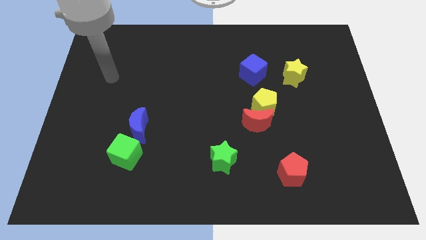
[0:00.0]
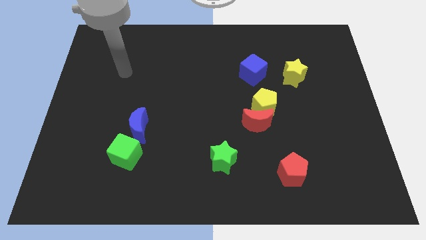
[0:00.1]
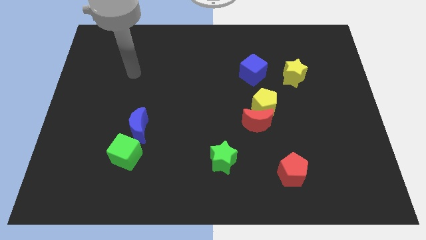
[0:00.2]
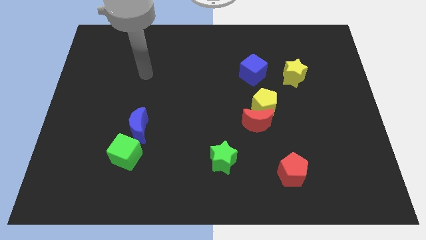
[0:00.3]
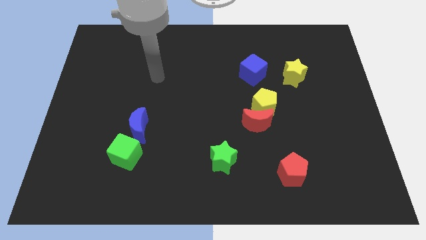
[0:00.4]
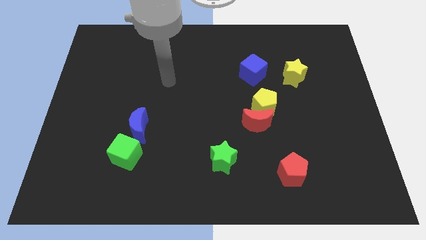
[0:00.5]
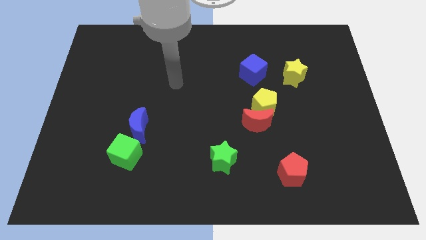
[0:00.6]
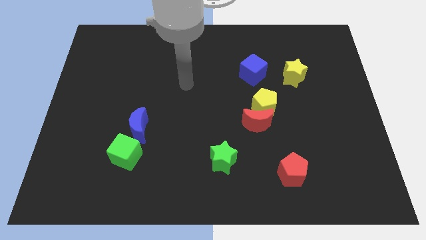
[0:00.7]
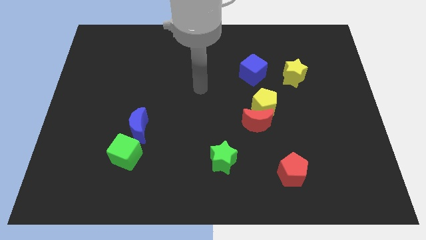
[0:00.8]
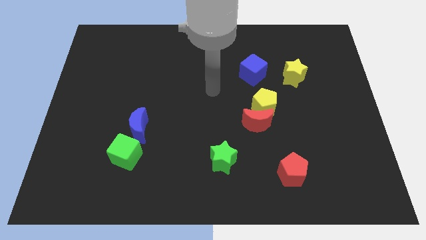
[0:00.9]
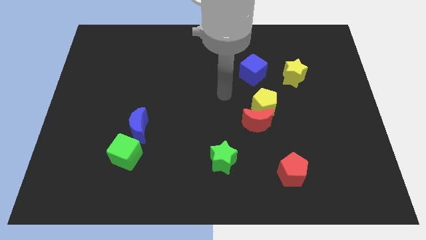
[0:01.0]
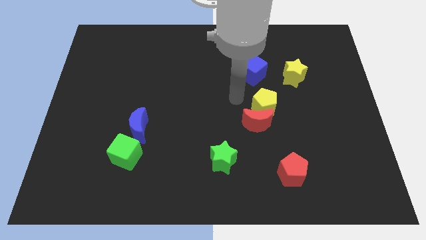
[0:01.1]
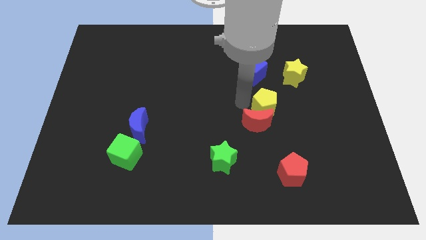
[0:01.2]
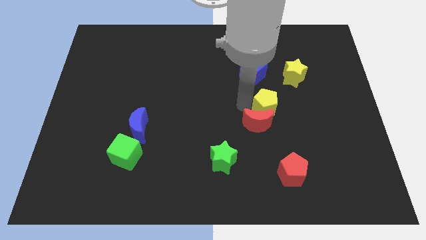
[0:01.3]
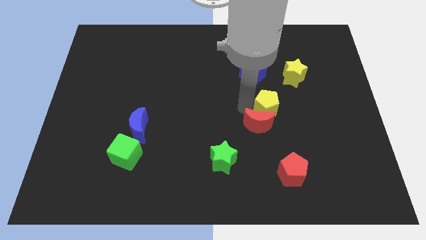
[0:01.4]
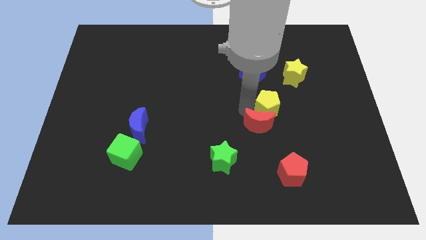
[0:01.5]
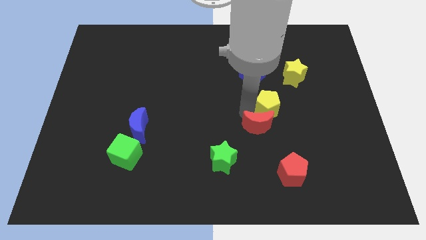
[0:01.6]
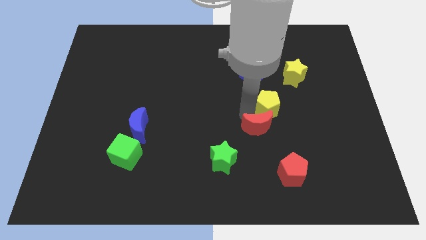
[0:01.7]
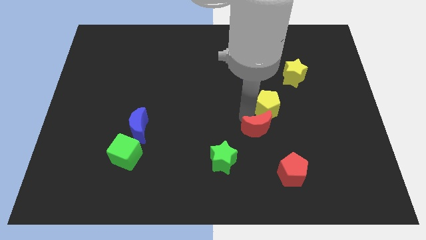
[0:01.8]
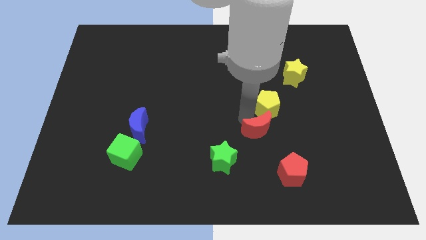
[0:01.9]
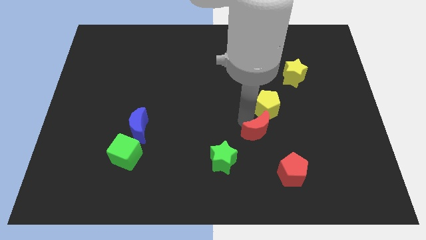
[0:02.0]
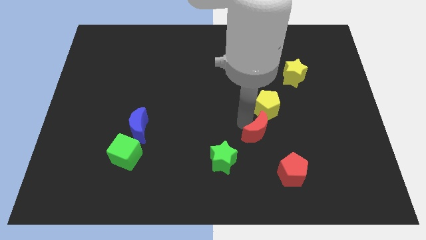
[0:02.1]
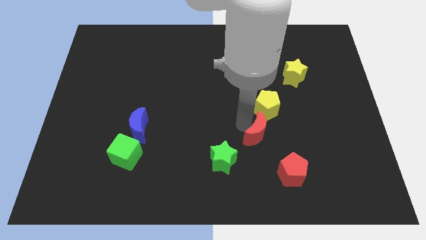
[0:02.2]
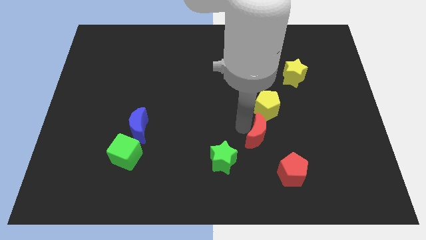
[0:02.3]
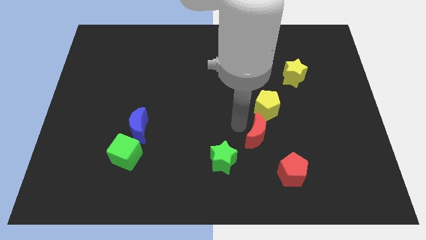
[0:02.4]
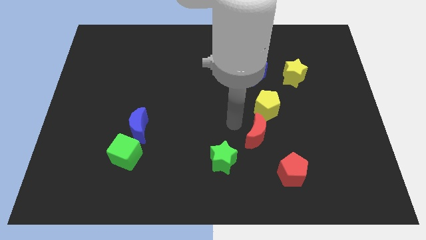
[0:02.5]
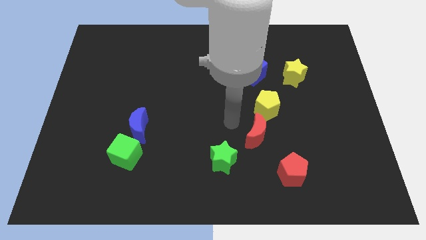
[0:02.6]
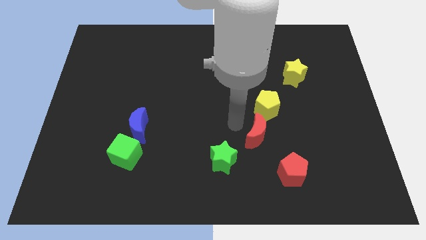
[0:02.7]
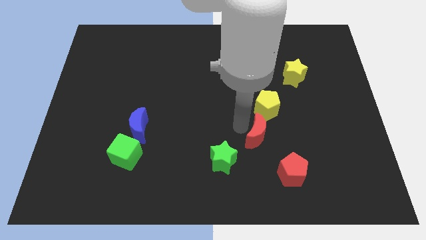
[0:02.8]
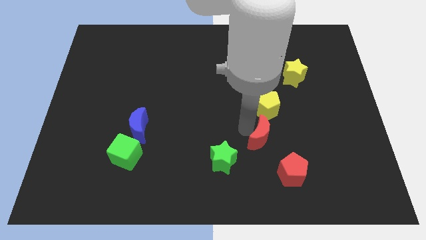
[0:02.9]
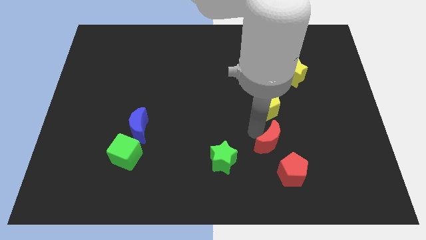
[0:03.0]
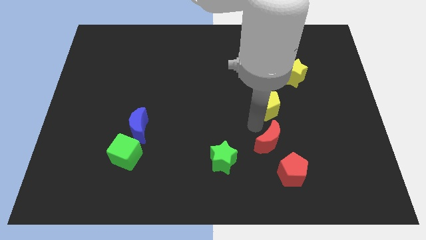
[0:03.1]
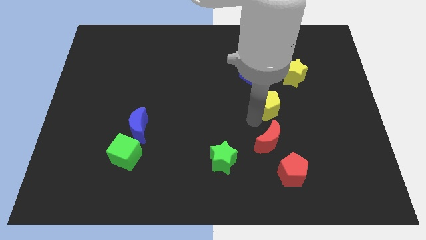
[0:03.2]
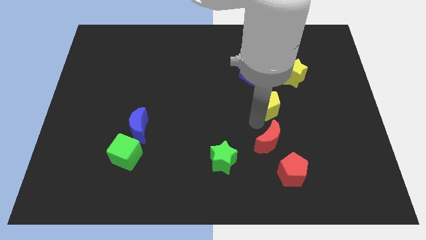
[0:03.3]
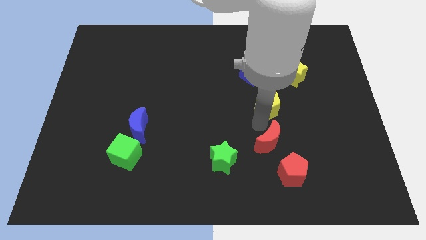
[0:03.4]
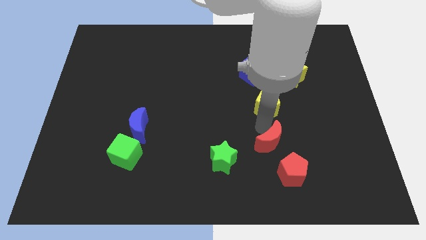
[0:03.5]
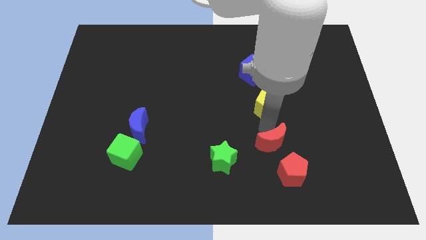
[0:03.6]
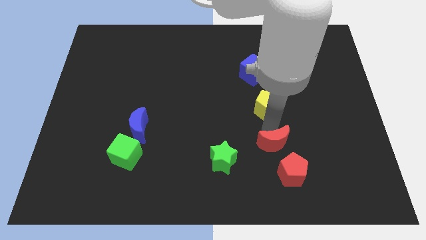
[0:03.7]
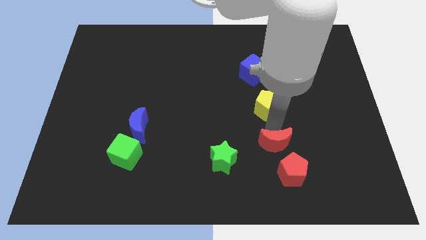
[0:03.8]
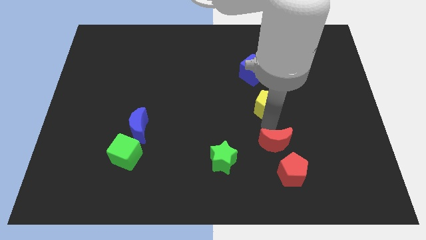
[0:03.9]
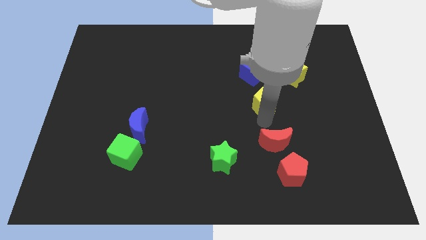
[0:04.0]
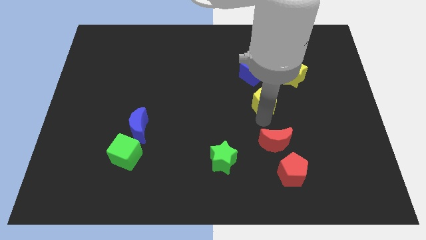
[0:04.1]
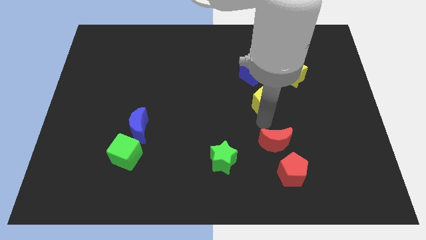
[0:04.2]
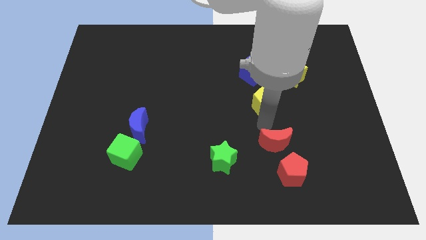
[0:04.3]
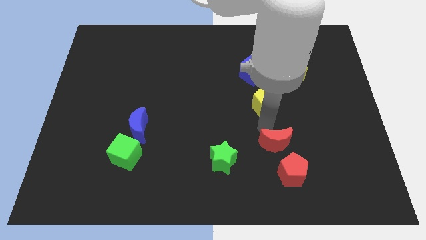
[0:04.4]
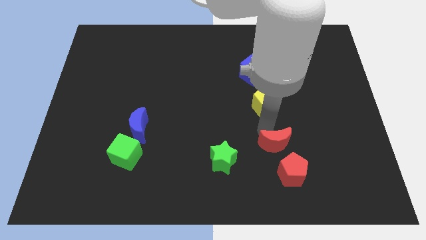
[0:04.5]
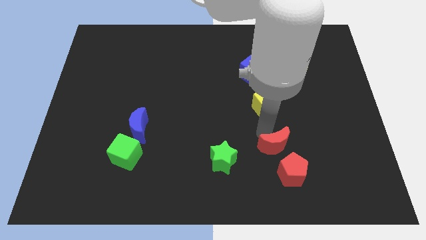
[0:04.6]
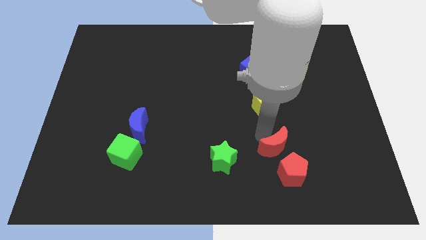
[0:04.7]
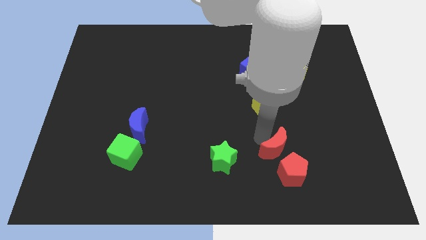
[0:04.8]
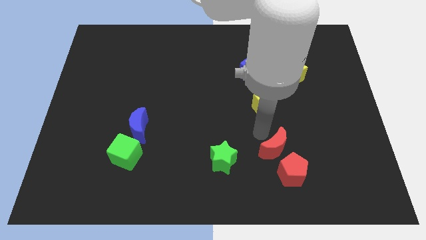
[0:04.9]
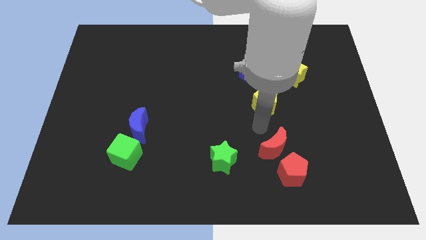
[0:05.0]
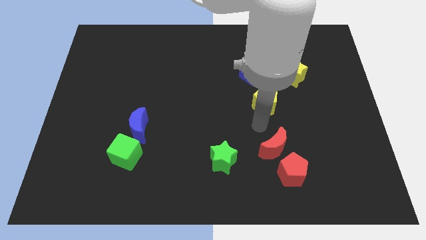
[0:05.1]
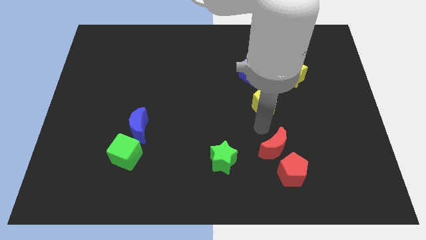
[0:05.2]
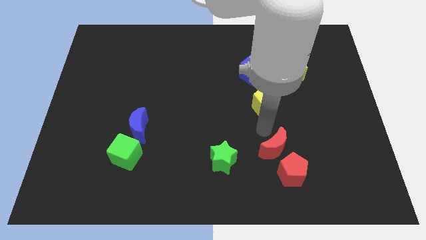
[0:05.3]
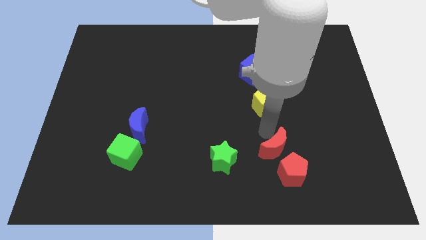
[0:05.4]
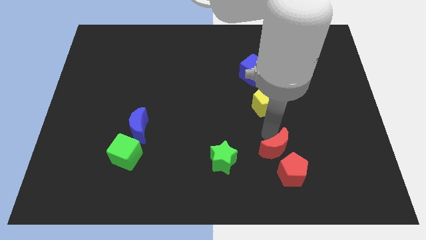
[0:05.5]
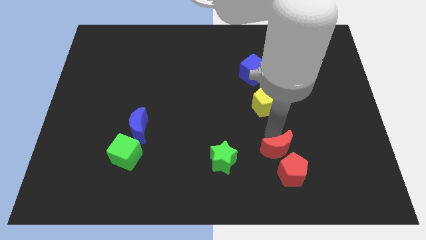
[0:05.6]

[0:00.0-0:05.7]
move the red moon towards the red pentagon

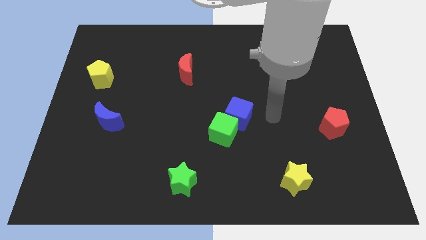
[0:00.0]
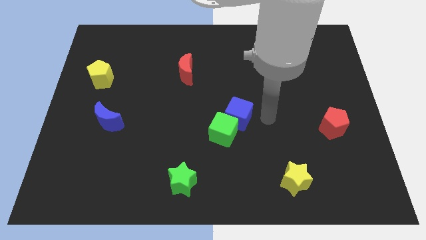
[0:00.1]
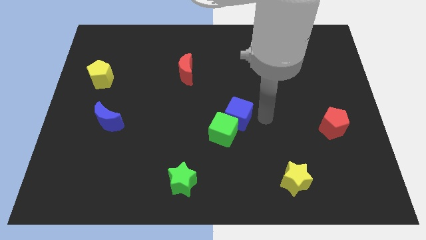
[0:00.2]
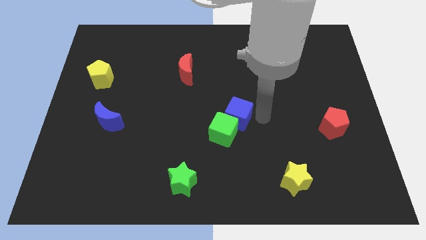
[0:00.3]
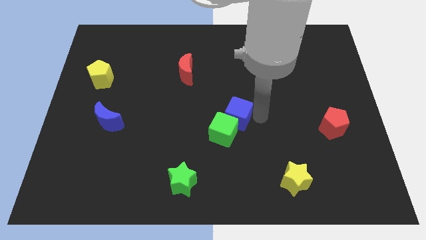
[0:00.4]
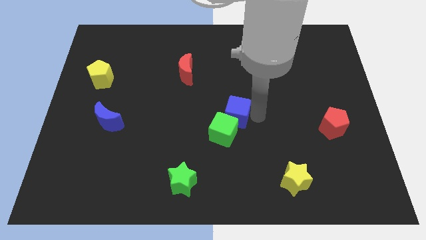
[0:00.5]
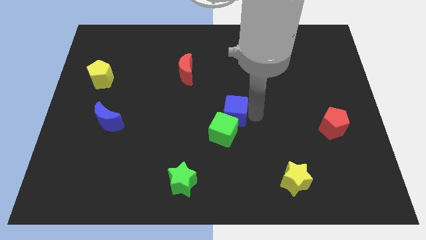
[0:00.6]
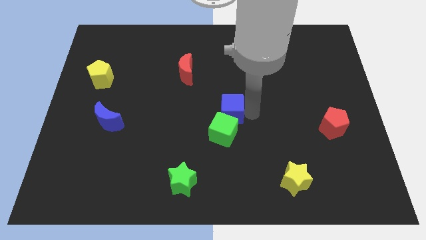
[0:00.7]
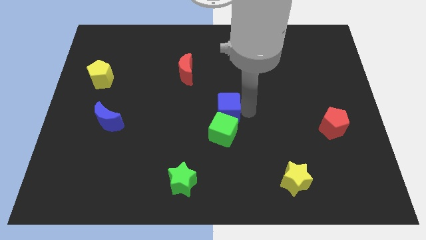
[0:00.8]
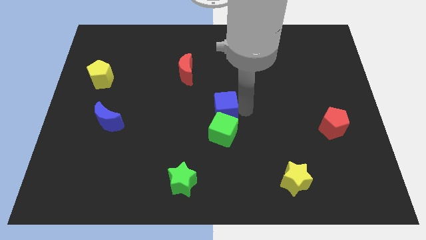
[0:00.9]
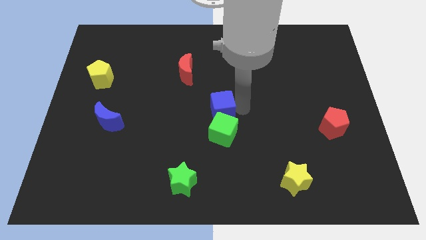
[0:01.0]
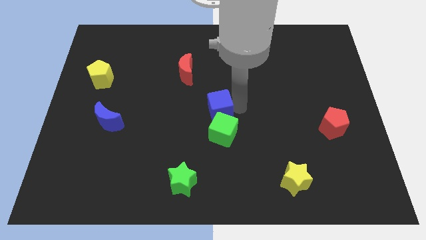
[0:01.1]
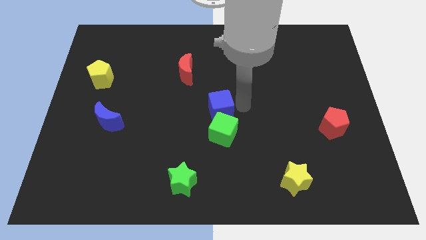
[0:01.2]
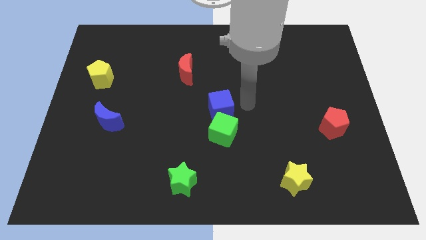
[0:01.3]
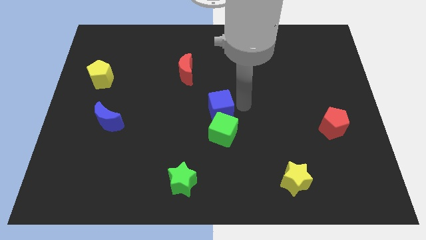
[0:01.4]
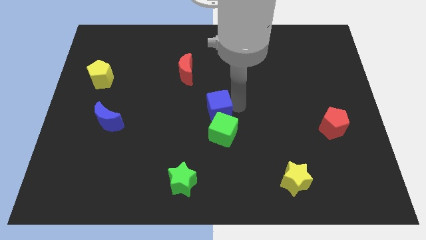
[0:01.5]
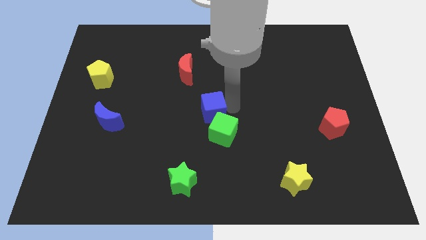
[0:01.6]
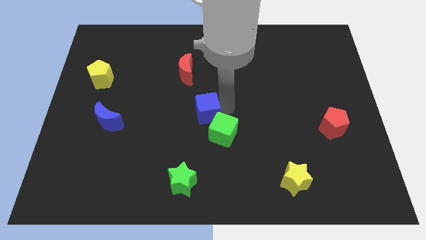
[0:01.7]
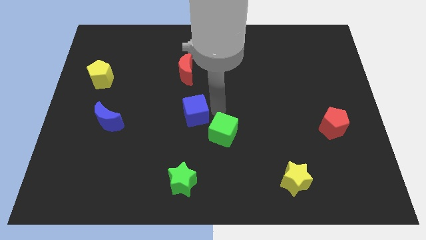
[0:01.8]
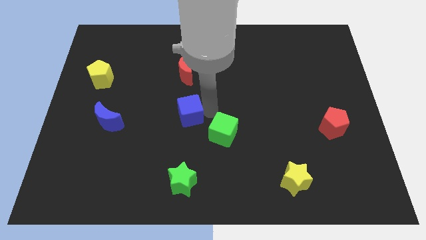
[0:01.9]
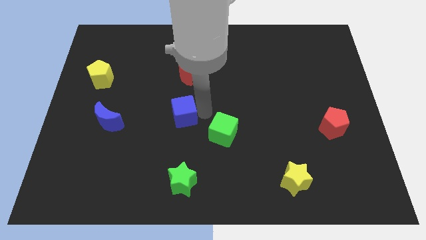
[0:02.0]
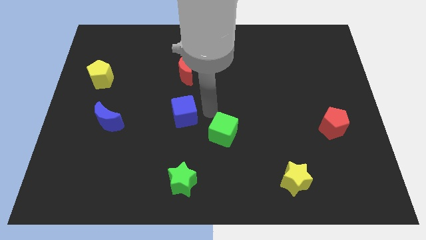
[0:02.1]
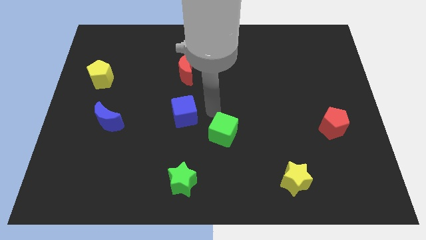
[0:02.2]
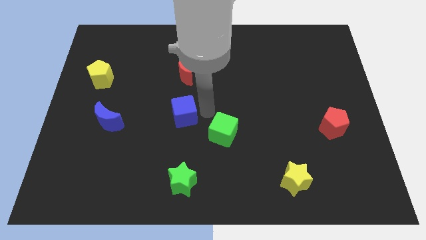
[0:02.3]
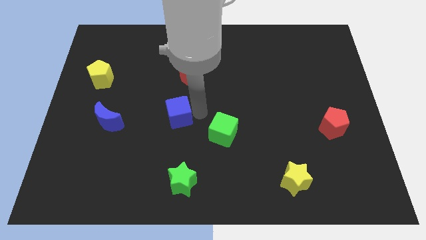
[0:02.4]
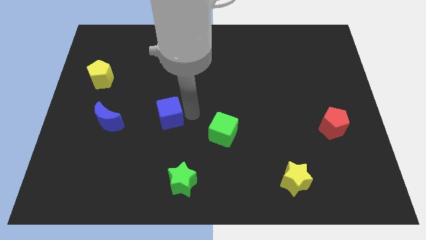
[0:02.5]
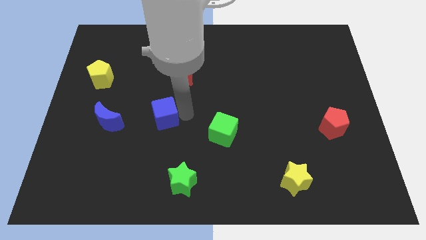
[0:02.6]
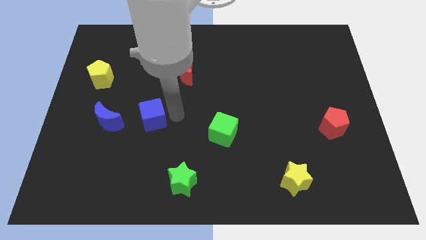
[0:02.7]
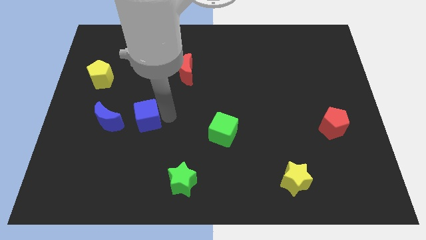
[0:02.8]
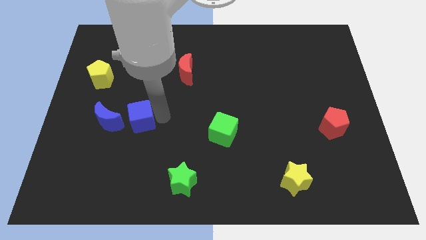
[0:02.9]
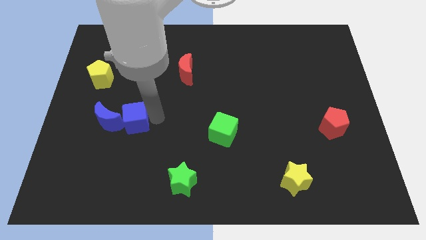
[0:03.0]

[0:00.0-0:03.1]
slide the blue cube close to the blue moon
